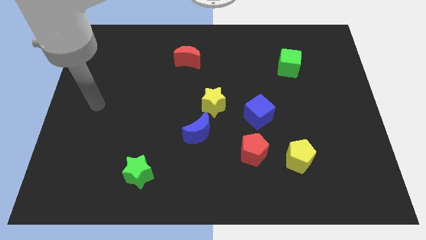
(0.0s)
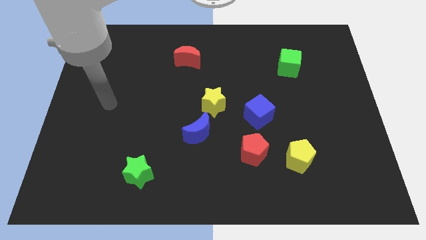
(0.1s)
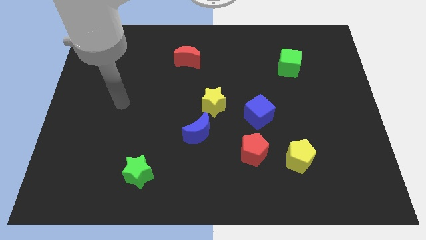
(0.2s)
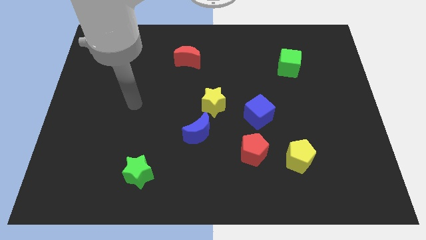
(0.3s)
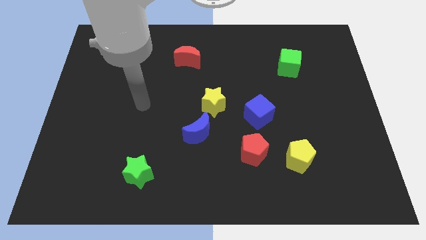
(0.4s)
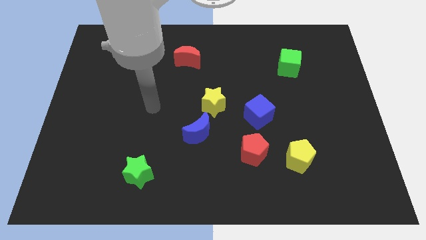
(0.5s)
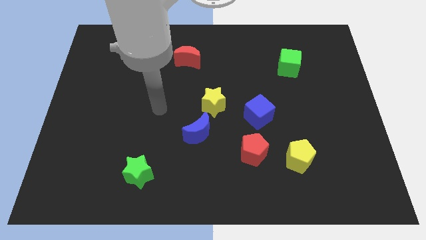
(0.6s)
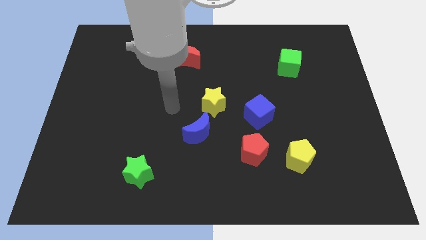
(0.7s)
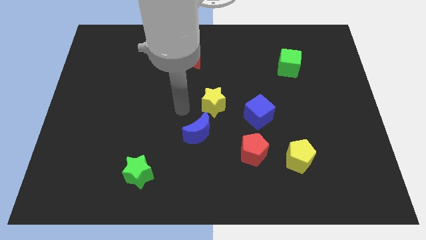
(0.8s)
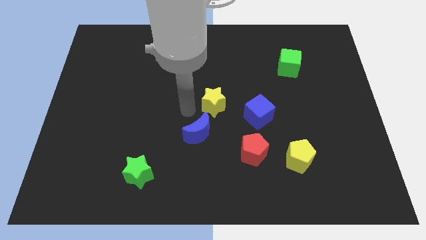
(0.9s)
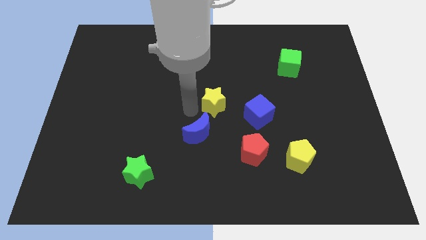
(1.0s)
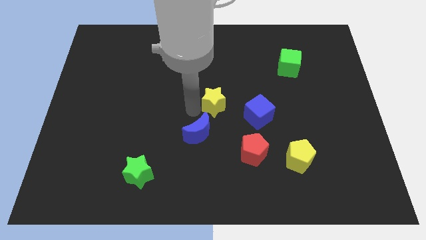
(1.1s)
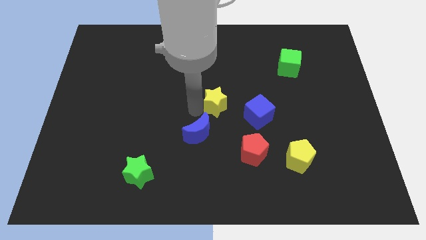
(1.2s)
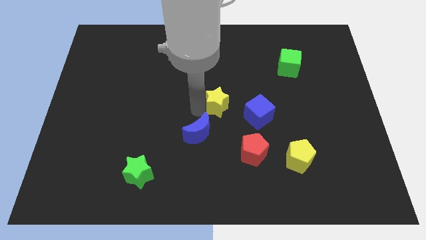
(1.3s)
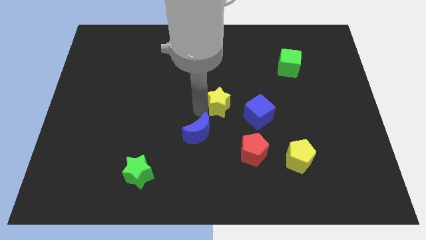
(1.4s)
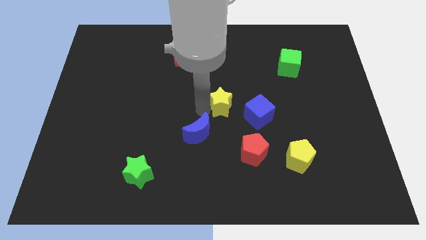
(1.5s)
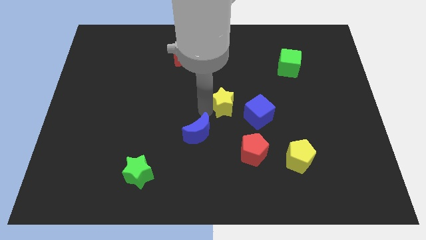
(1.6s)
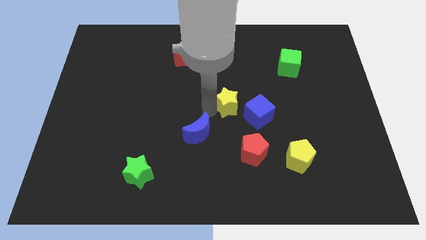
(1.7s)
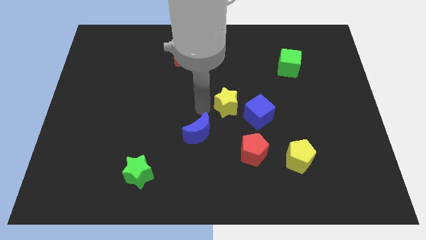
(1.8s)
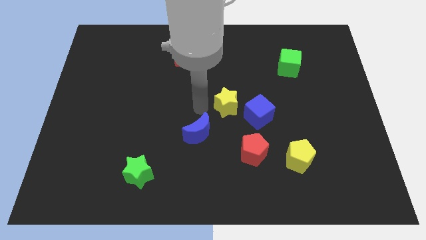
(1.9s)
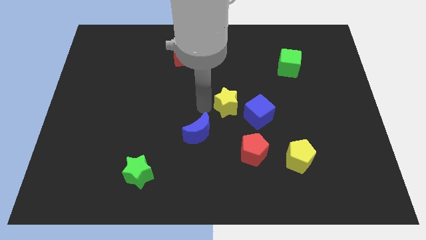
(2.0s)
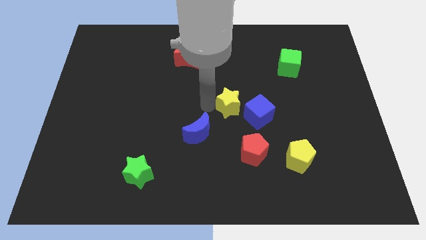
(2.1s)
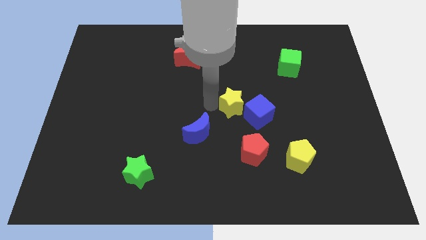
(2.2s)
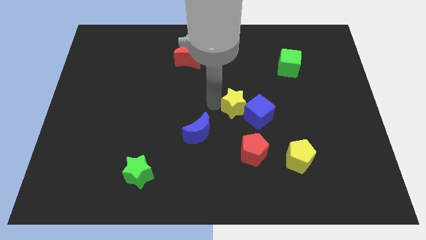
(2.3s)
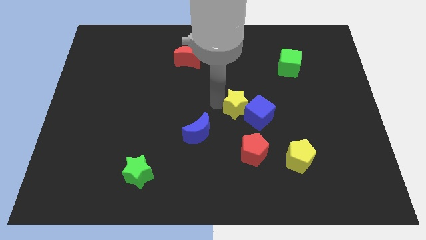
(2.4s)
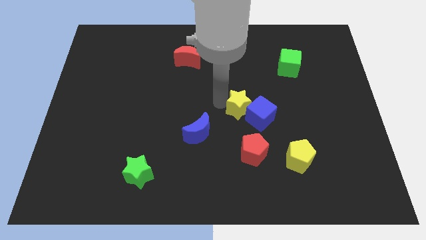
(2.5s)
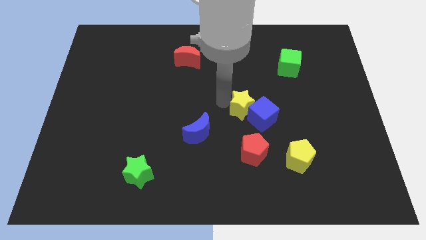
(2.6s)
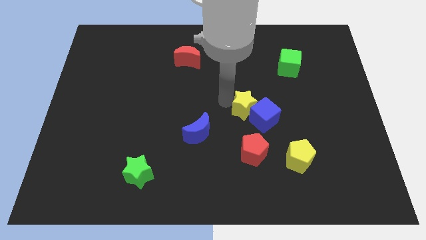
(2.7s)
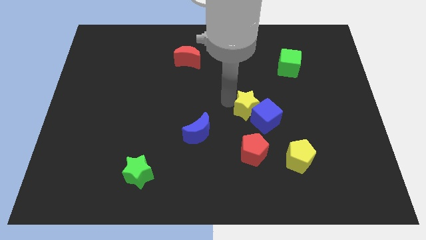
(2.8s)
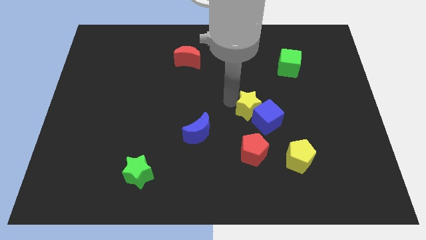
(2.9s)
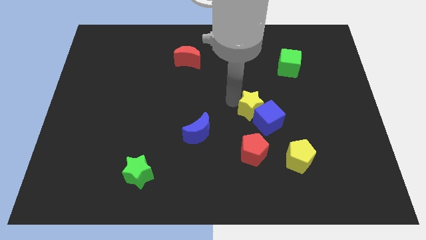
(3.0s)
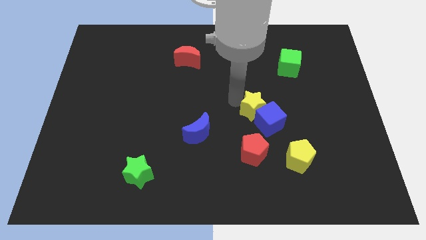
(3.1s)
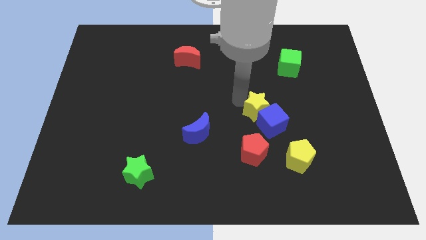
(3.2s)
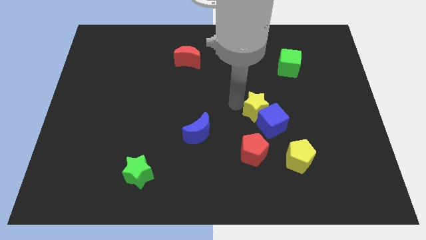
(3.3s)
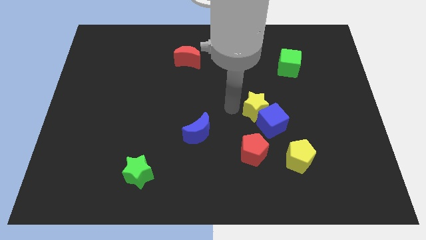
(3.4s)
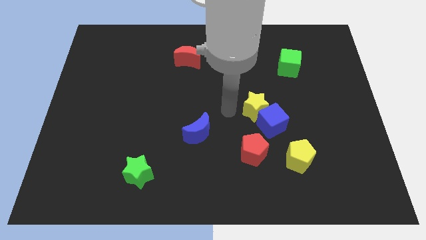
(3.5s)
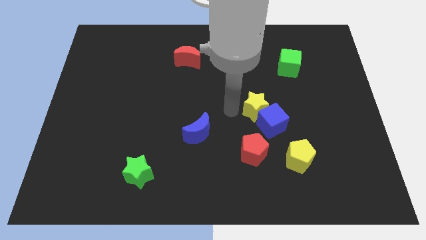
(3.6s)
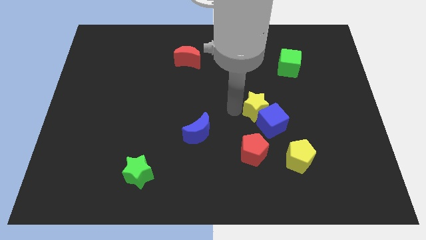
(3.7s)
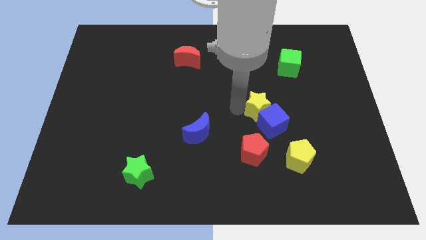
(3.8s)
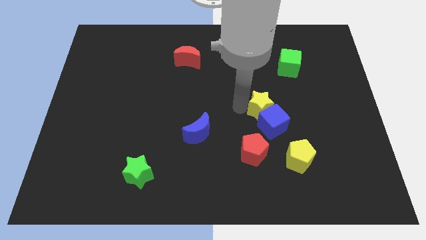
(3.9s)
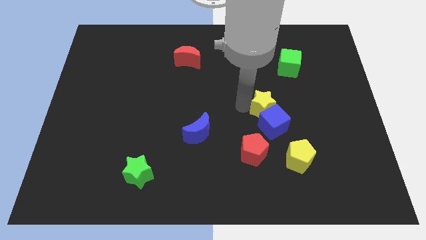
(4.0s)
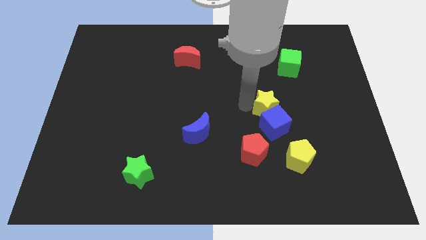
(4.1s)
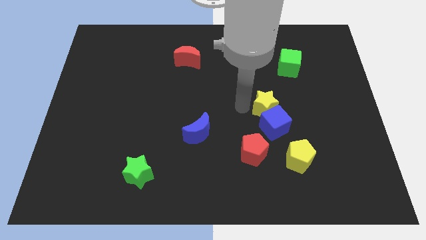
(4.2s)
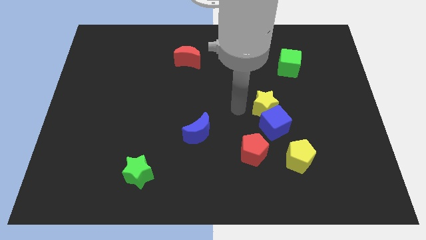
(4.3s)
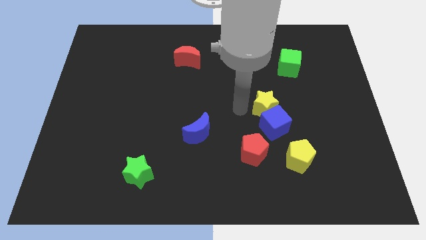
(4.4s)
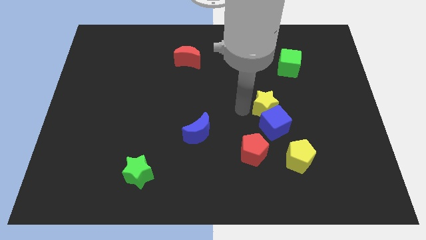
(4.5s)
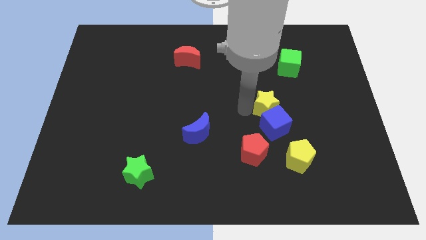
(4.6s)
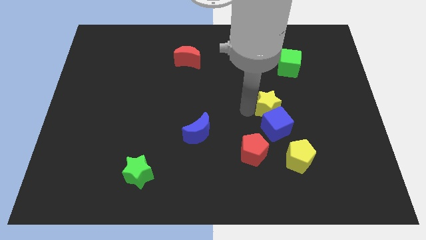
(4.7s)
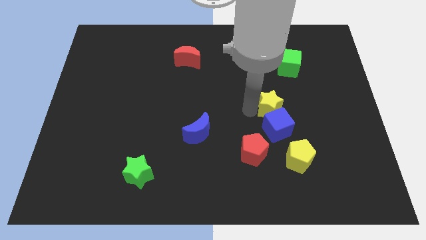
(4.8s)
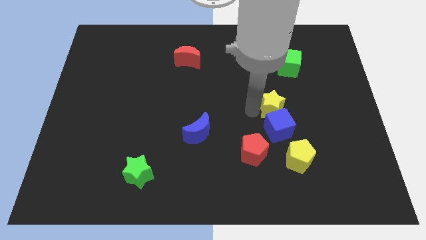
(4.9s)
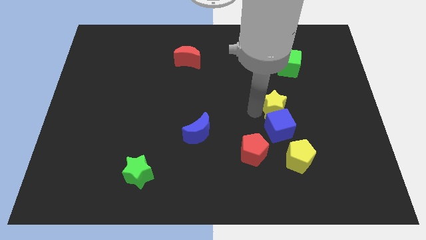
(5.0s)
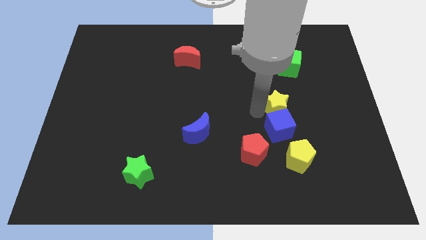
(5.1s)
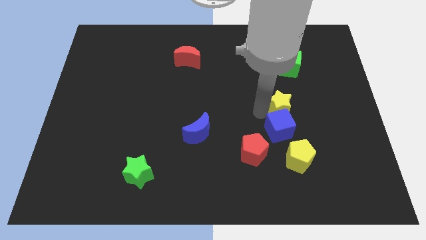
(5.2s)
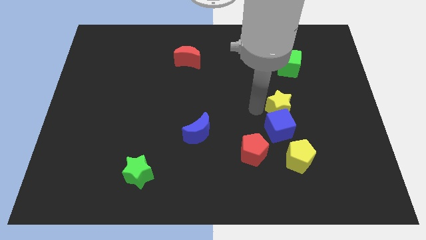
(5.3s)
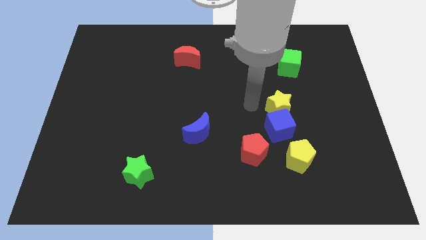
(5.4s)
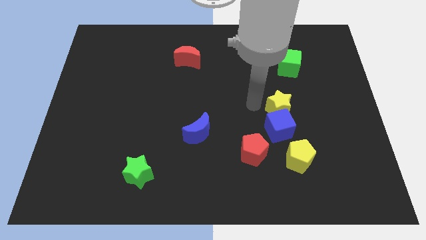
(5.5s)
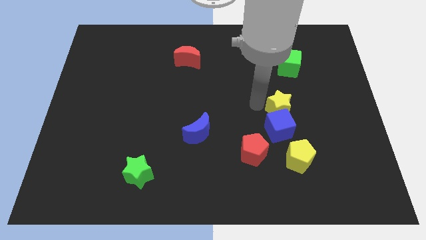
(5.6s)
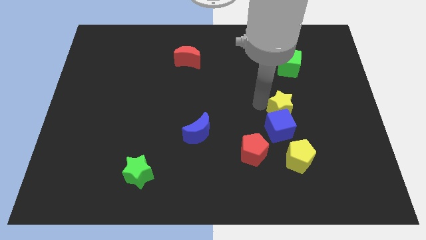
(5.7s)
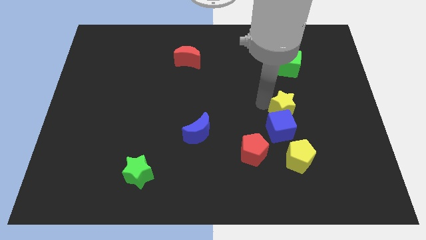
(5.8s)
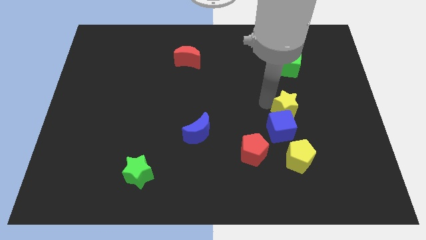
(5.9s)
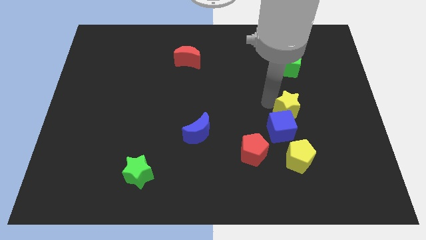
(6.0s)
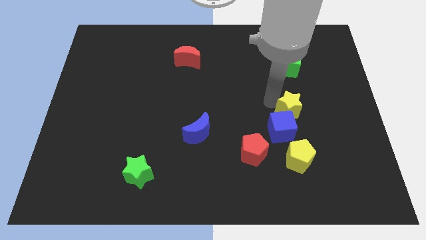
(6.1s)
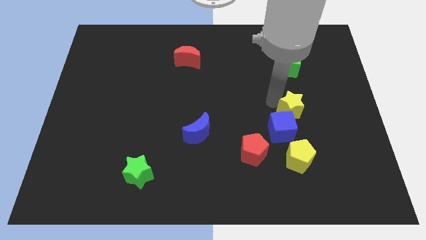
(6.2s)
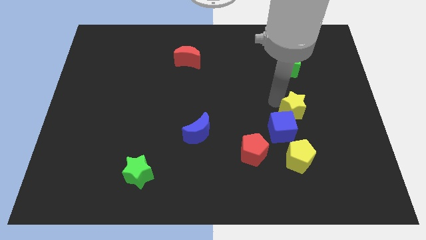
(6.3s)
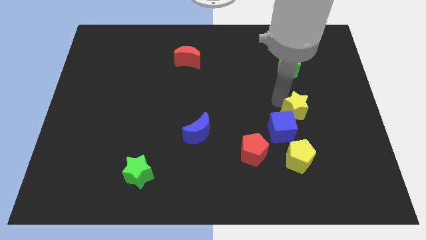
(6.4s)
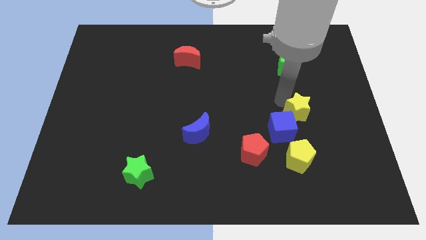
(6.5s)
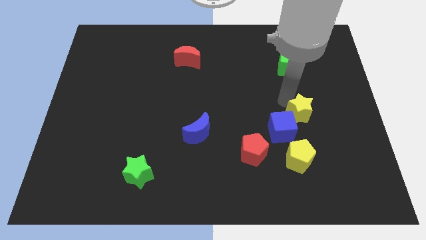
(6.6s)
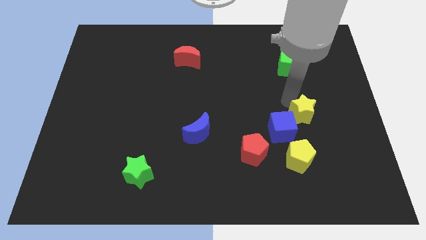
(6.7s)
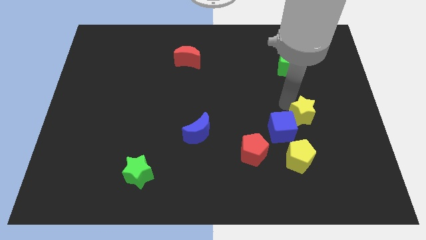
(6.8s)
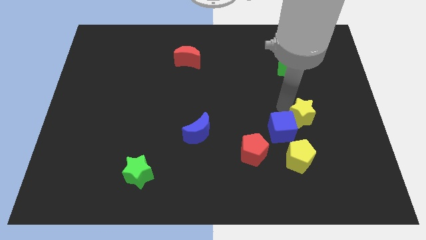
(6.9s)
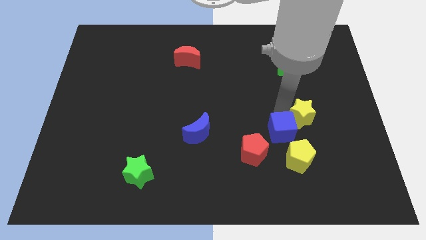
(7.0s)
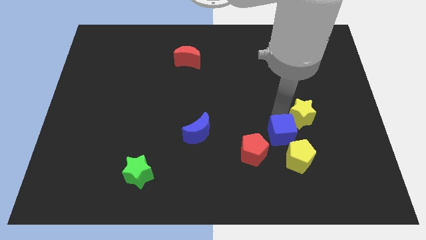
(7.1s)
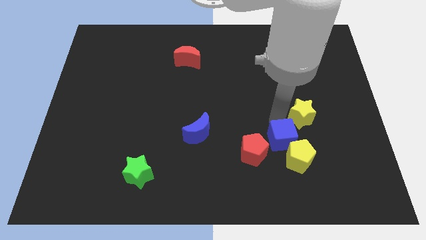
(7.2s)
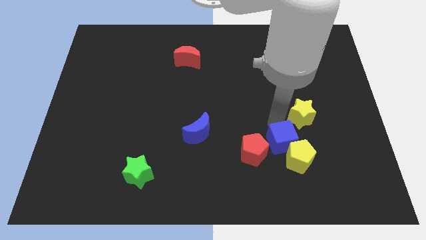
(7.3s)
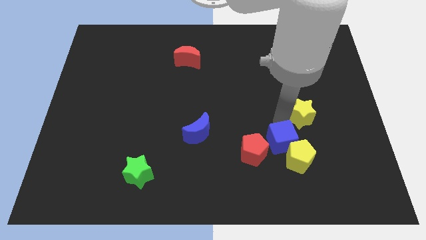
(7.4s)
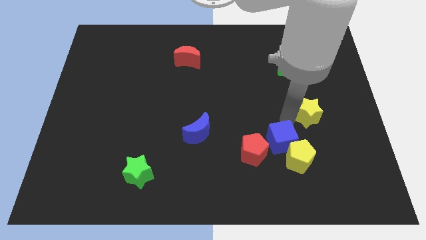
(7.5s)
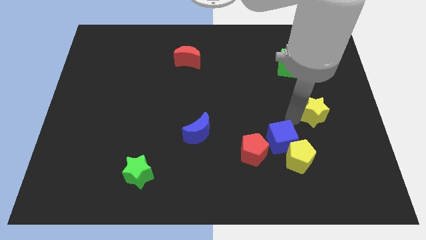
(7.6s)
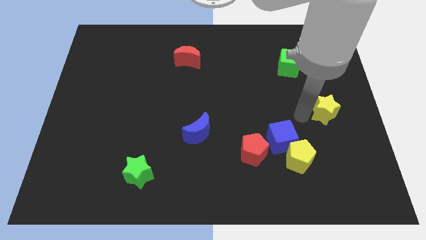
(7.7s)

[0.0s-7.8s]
put the yellow star to the right side of the board
